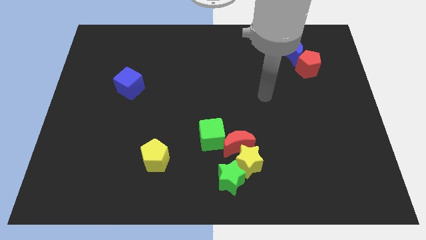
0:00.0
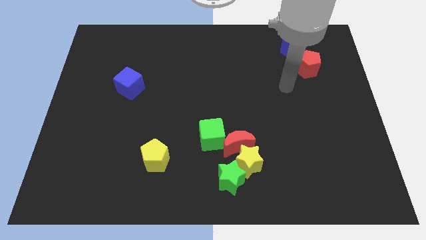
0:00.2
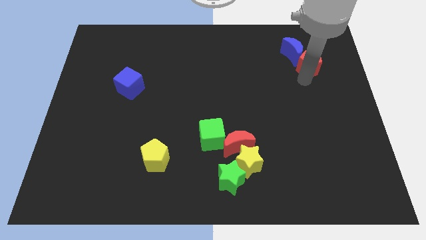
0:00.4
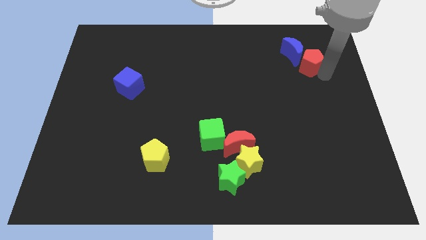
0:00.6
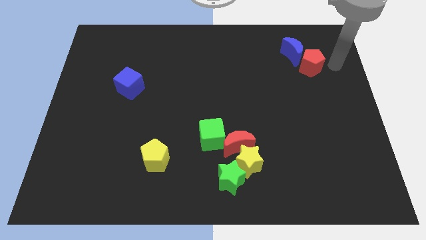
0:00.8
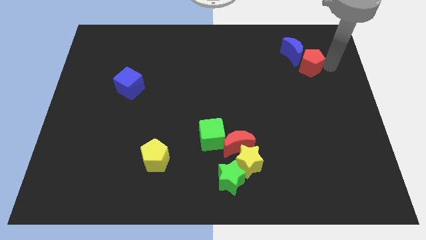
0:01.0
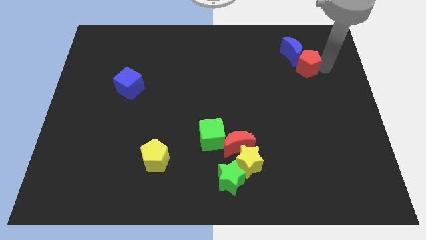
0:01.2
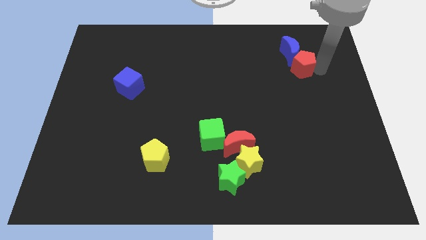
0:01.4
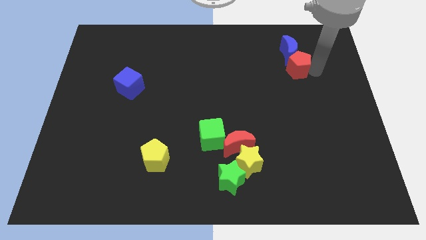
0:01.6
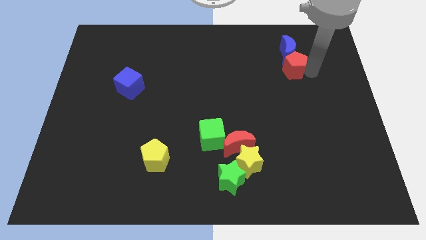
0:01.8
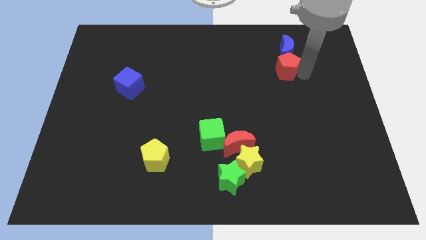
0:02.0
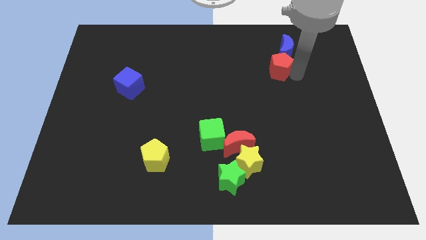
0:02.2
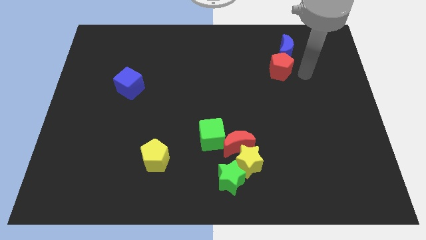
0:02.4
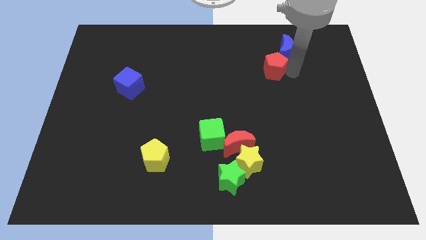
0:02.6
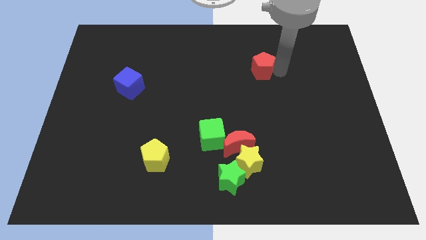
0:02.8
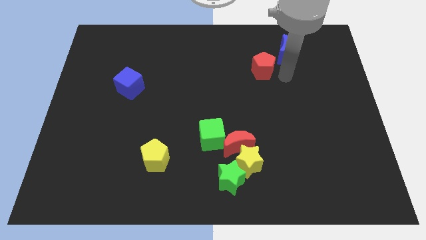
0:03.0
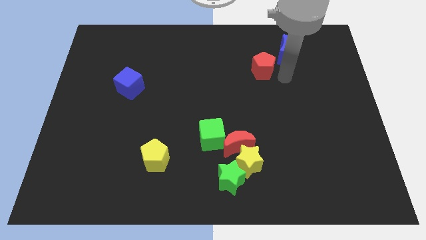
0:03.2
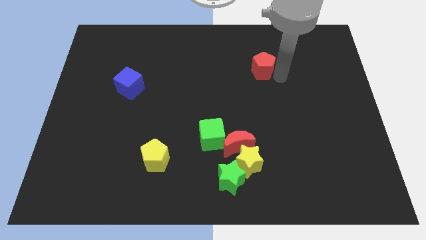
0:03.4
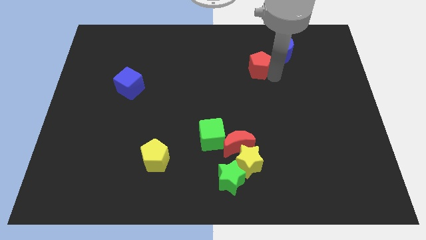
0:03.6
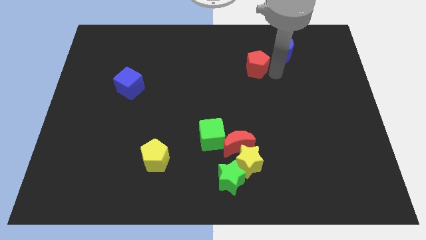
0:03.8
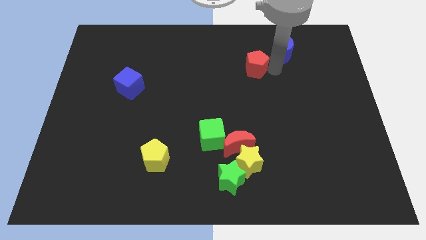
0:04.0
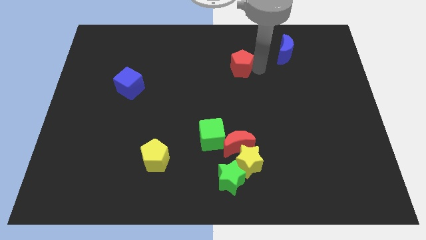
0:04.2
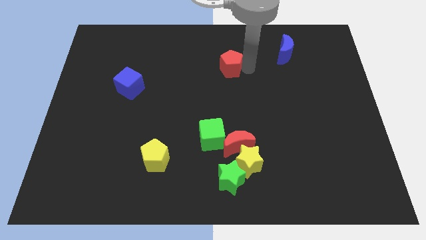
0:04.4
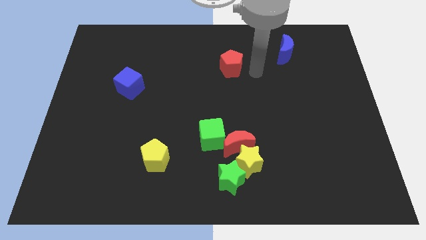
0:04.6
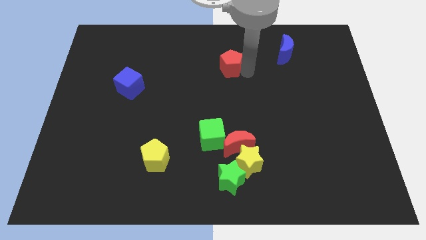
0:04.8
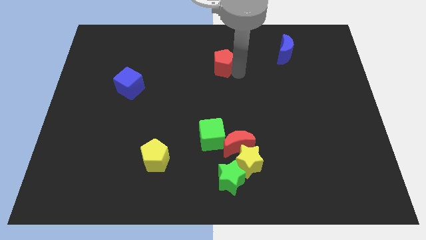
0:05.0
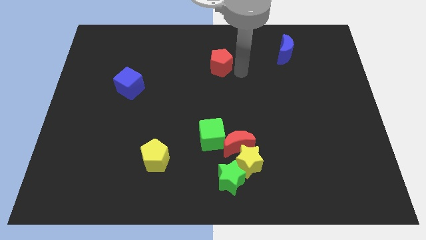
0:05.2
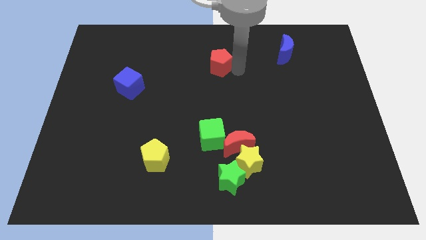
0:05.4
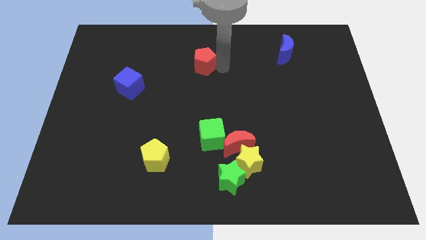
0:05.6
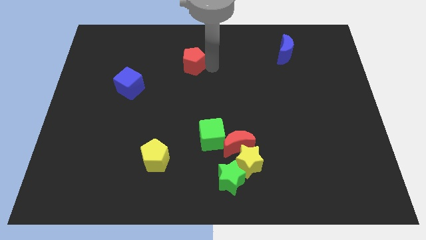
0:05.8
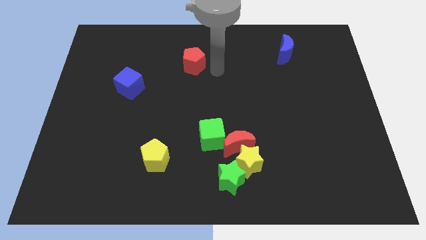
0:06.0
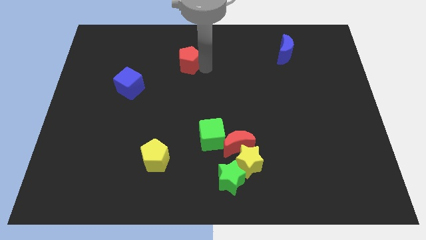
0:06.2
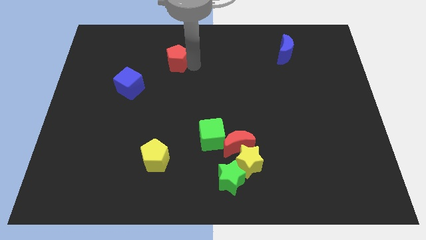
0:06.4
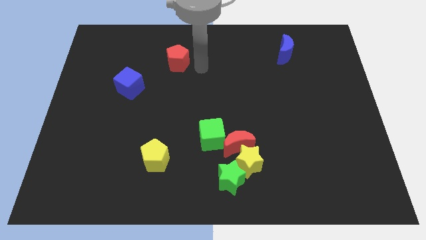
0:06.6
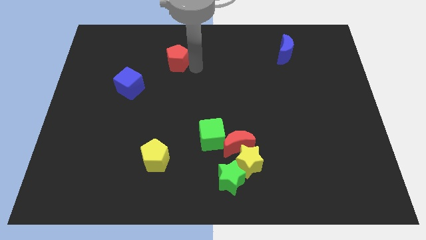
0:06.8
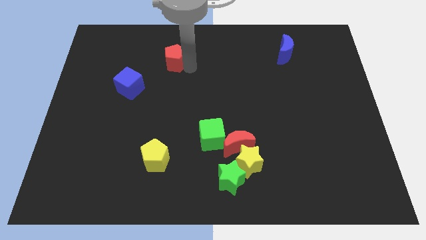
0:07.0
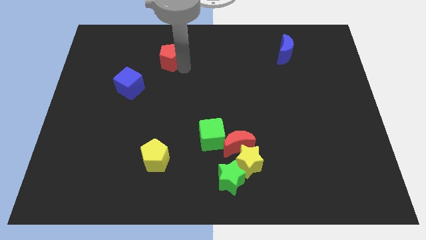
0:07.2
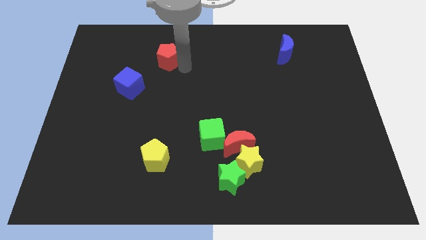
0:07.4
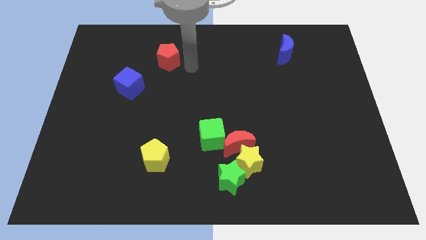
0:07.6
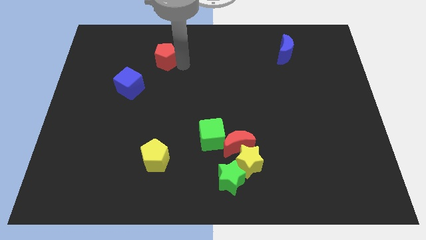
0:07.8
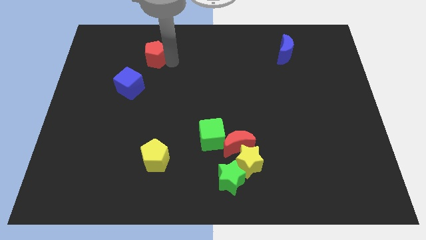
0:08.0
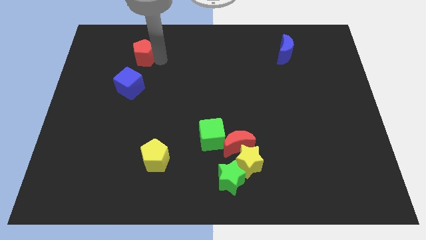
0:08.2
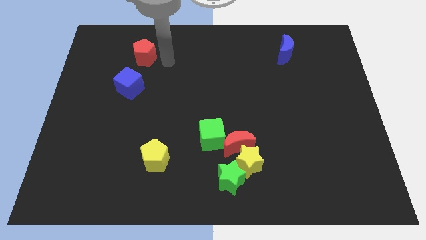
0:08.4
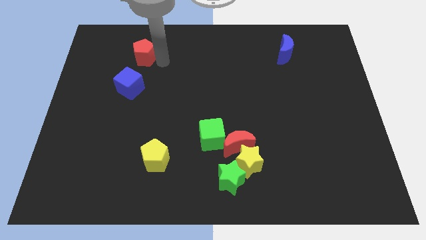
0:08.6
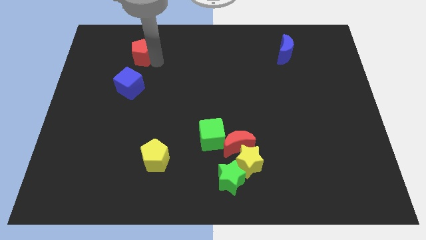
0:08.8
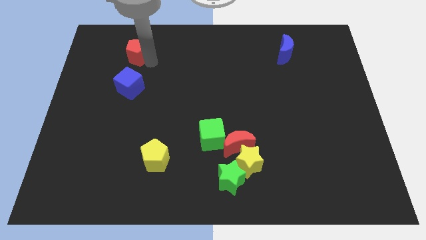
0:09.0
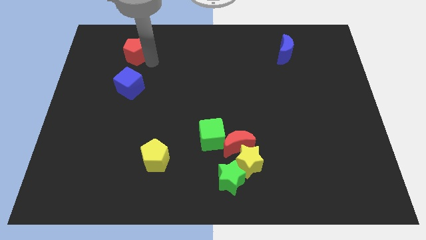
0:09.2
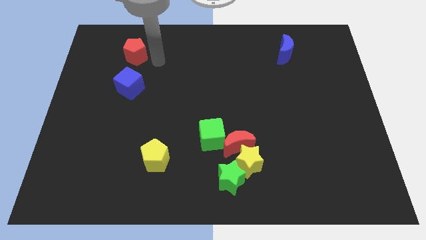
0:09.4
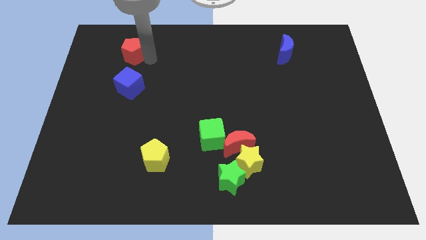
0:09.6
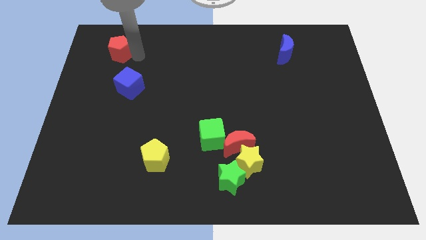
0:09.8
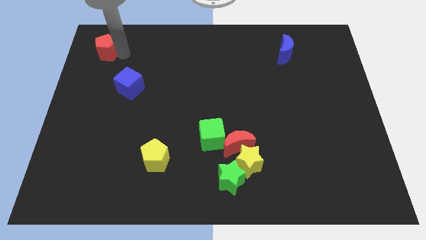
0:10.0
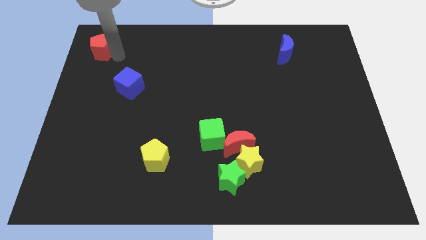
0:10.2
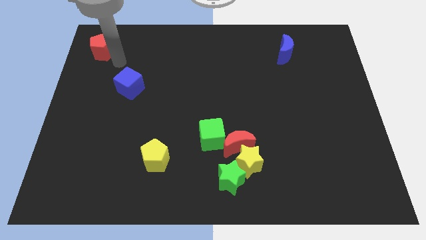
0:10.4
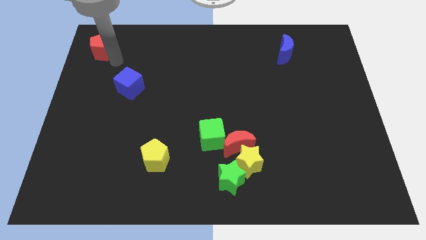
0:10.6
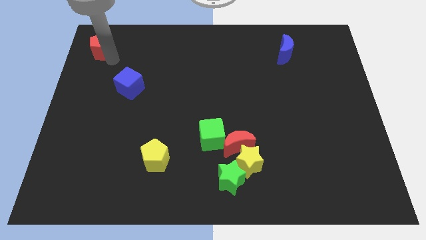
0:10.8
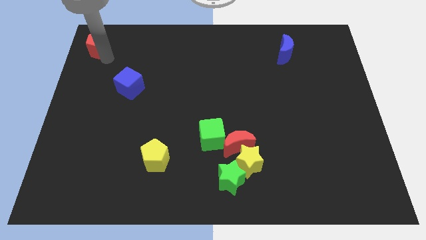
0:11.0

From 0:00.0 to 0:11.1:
move the red pentagon to the top left corner

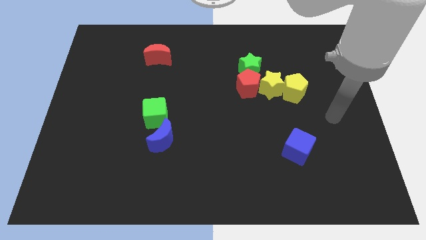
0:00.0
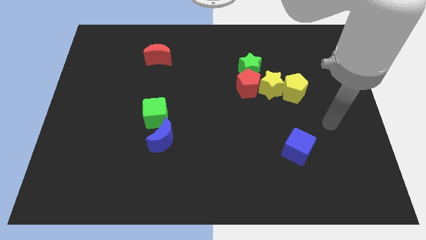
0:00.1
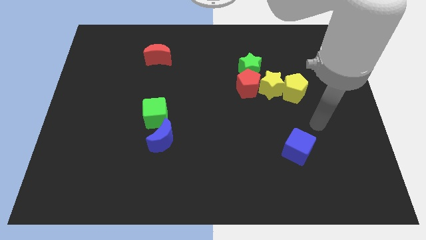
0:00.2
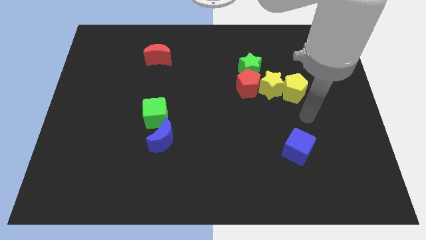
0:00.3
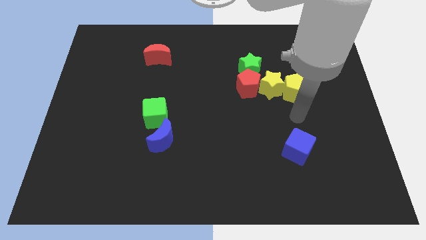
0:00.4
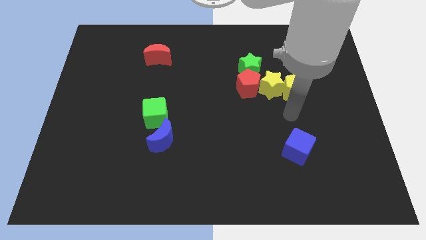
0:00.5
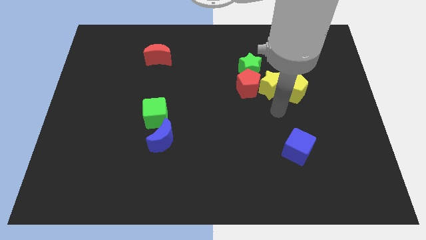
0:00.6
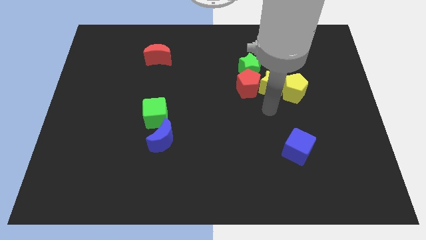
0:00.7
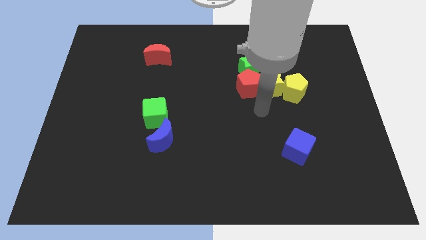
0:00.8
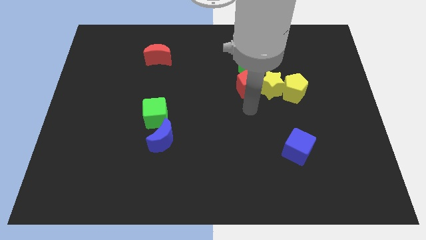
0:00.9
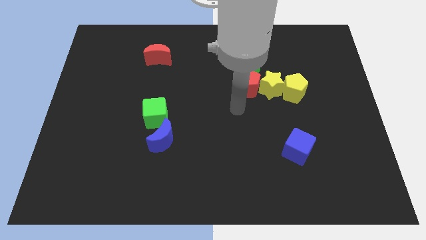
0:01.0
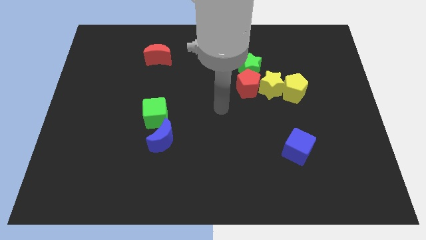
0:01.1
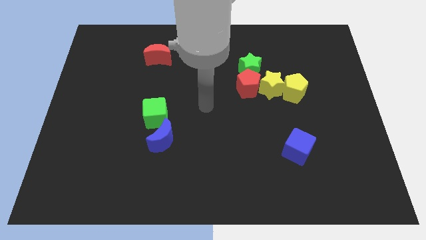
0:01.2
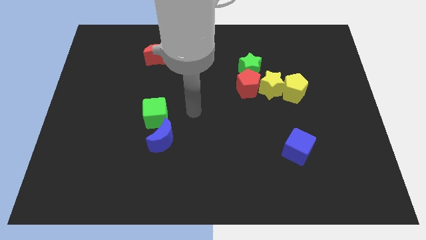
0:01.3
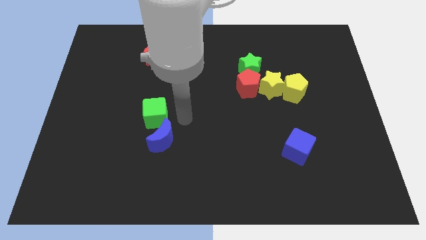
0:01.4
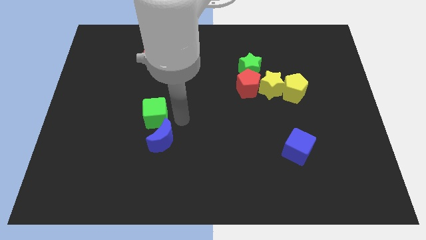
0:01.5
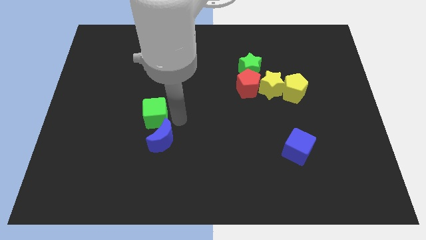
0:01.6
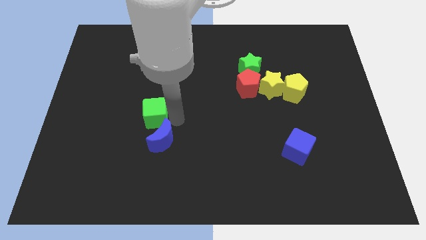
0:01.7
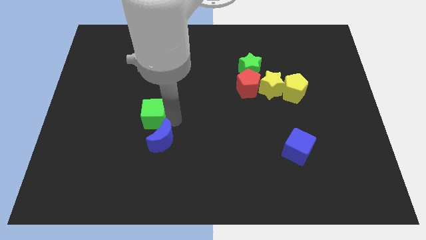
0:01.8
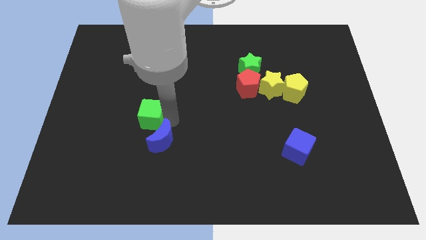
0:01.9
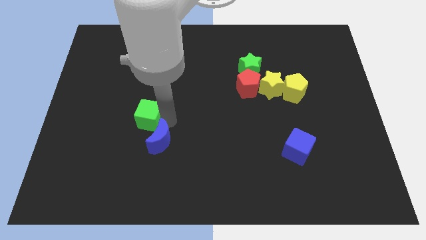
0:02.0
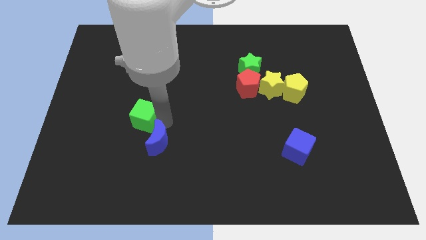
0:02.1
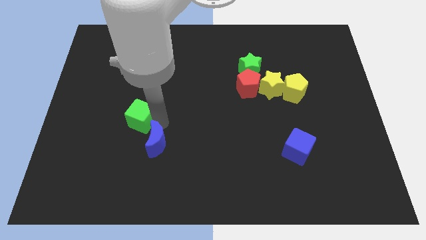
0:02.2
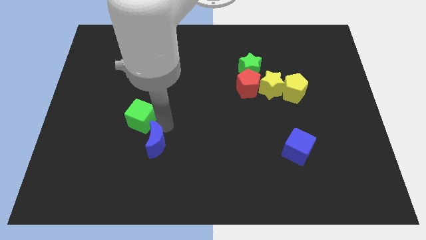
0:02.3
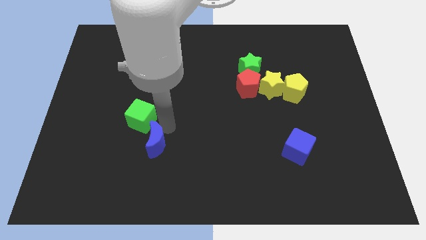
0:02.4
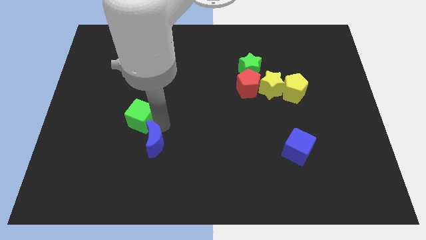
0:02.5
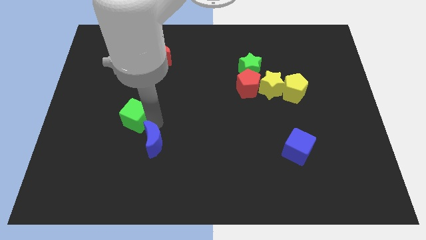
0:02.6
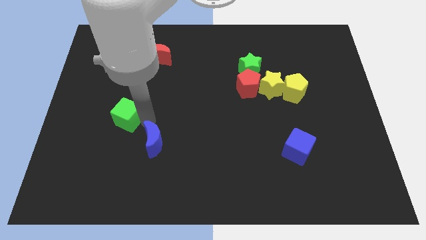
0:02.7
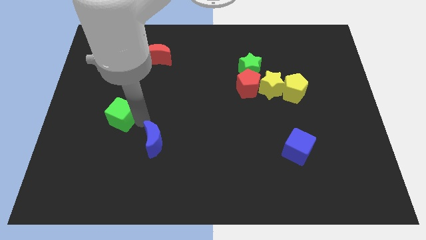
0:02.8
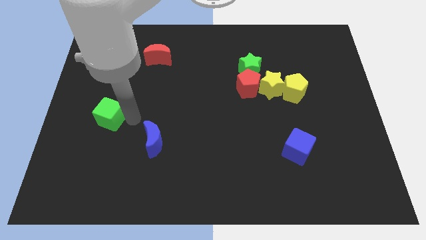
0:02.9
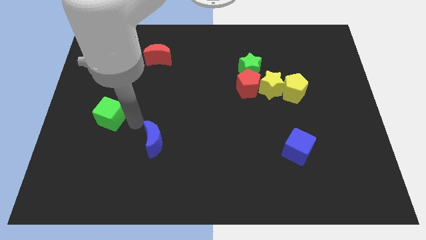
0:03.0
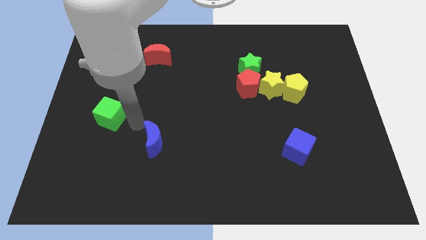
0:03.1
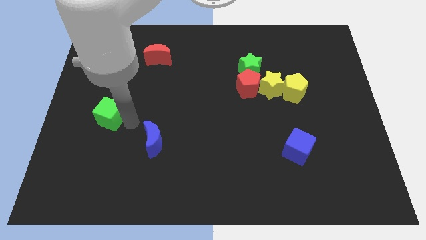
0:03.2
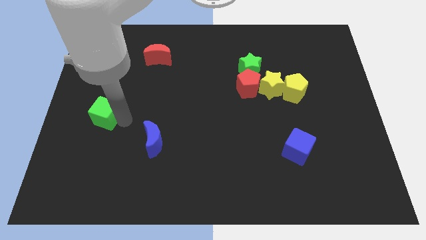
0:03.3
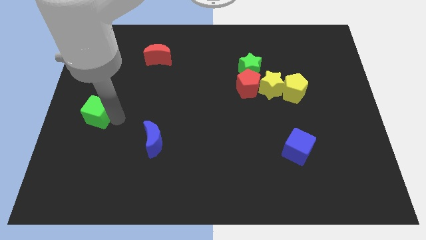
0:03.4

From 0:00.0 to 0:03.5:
move the green cube to the left side of the board
